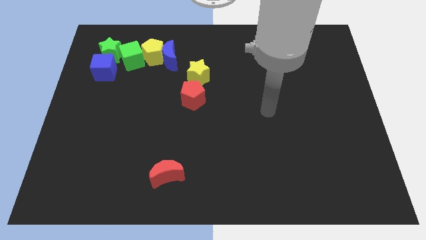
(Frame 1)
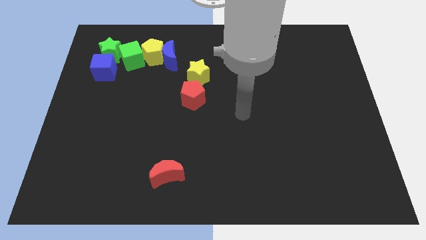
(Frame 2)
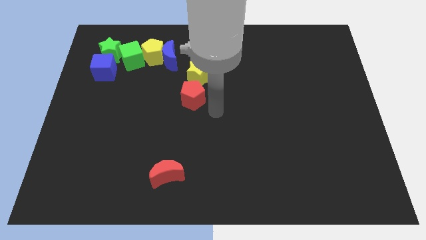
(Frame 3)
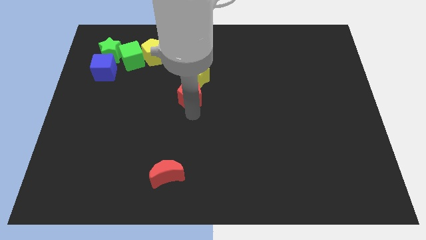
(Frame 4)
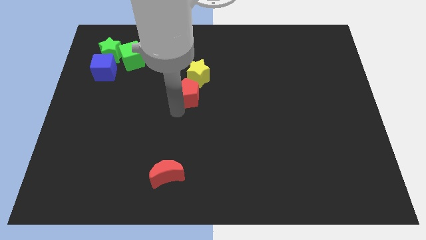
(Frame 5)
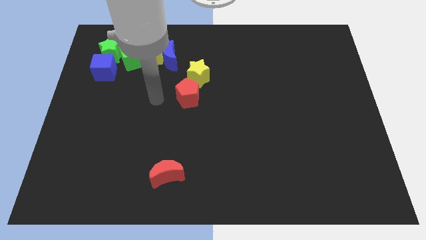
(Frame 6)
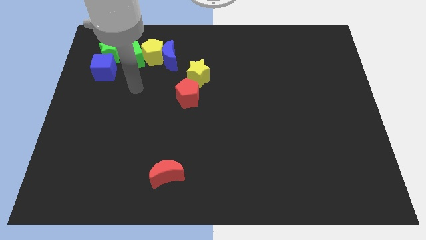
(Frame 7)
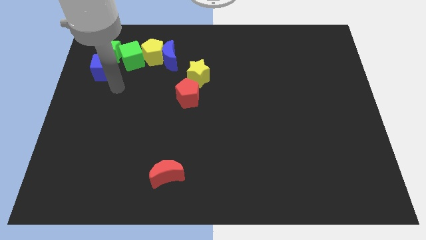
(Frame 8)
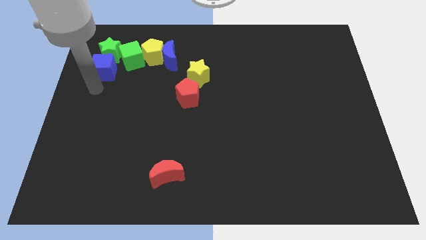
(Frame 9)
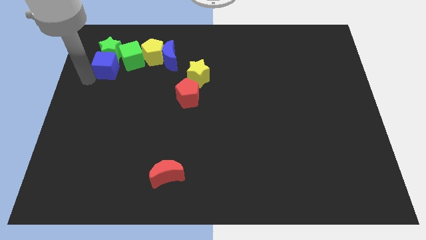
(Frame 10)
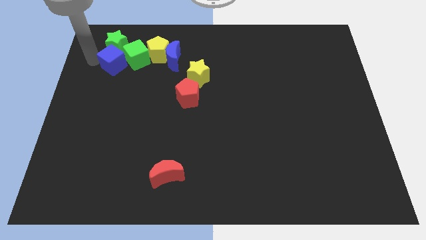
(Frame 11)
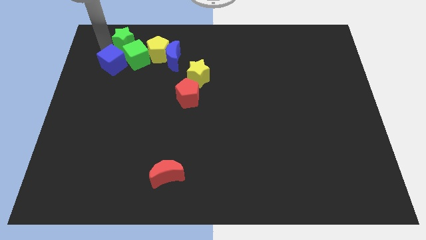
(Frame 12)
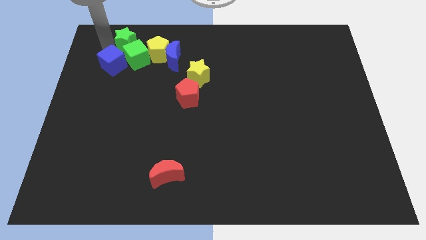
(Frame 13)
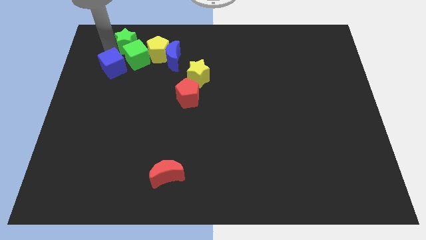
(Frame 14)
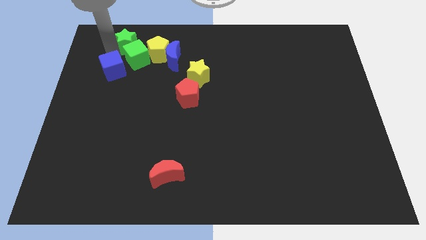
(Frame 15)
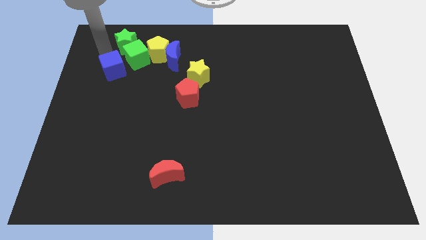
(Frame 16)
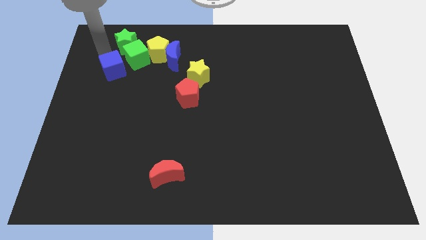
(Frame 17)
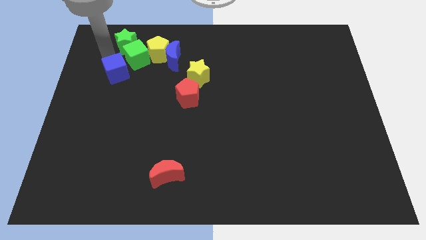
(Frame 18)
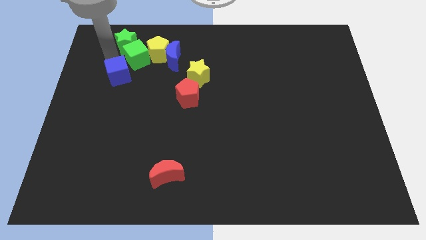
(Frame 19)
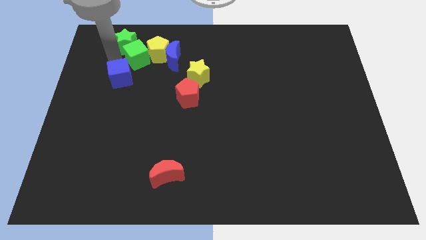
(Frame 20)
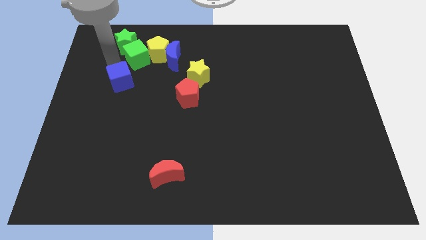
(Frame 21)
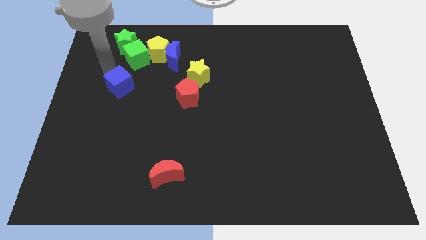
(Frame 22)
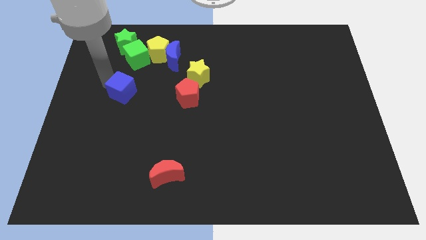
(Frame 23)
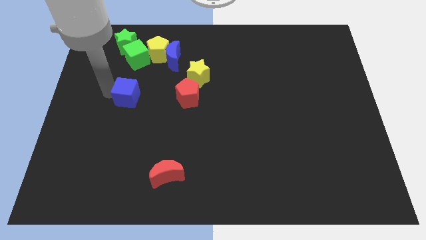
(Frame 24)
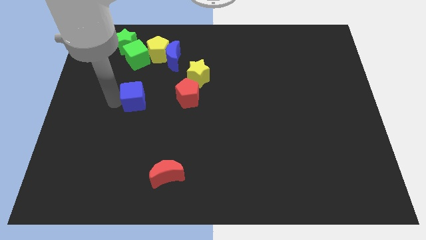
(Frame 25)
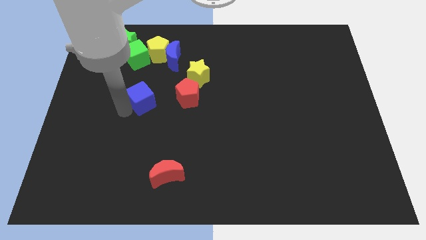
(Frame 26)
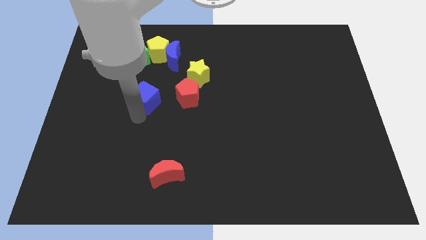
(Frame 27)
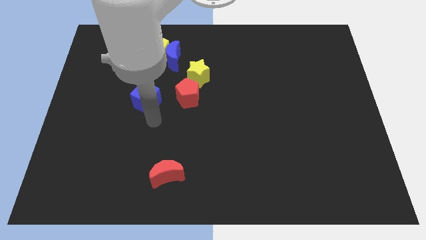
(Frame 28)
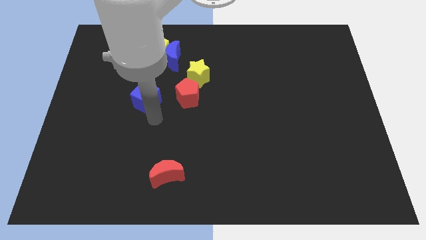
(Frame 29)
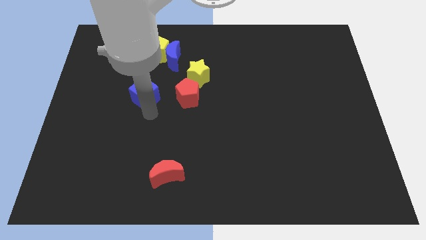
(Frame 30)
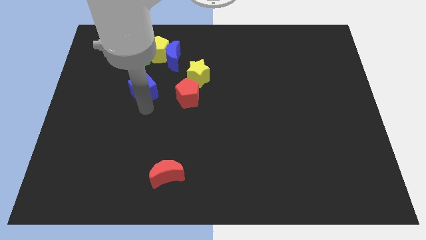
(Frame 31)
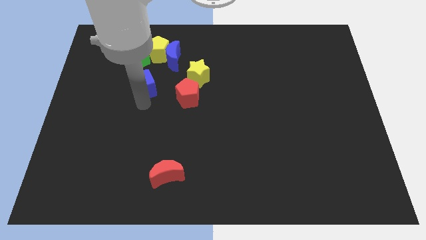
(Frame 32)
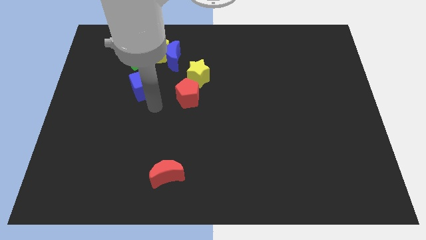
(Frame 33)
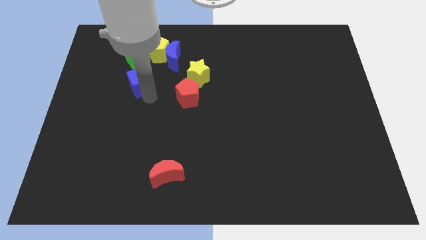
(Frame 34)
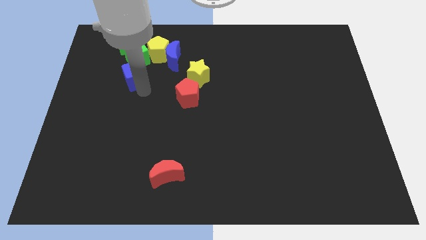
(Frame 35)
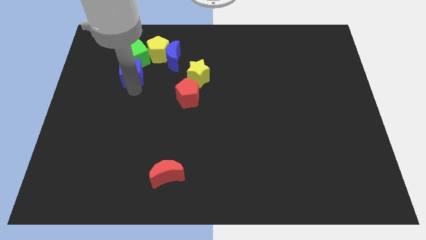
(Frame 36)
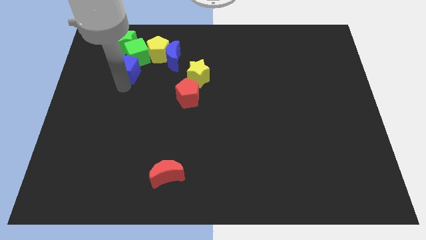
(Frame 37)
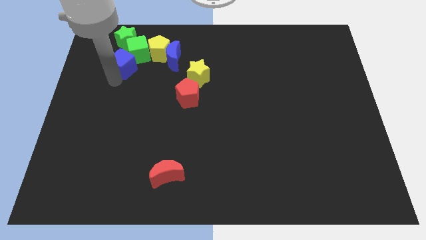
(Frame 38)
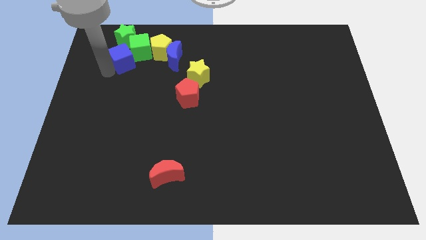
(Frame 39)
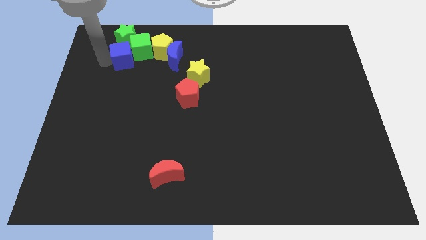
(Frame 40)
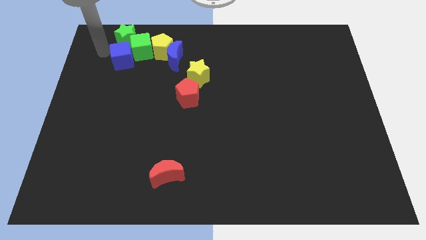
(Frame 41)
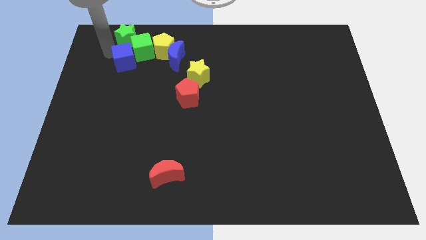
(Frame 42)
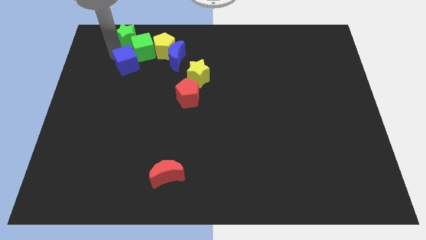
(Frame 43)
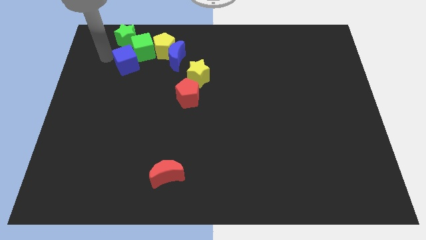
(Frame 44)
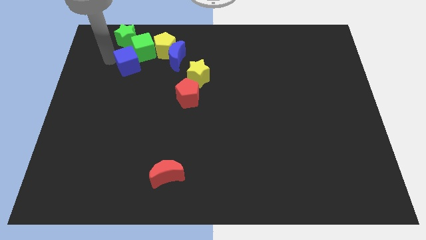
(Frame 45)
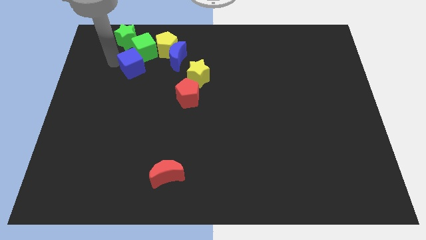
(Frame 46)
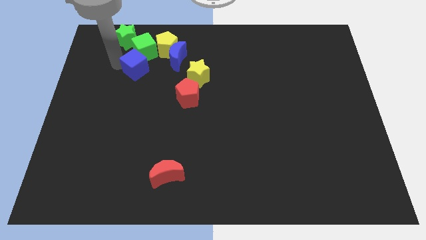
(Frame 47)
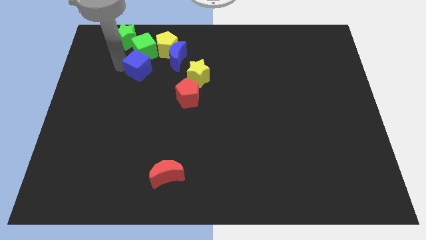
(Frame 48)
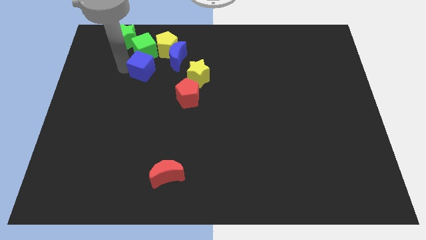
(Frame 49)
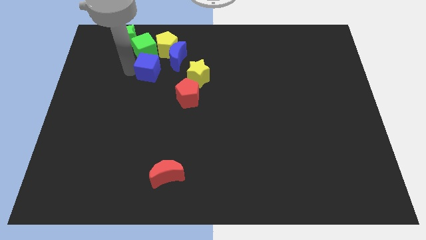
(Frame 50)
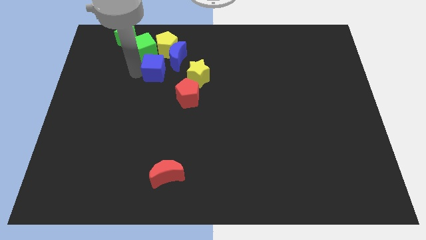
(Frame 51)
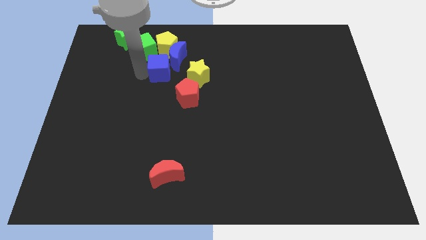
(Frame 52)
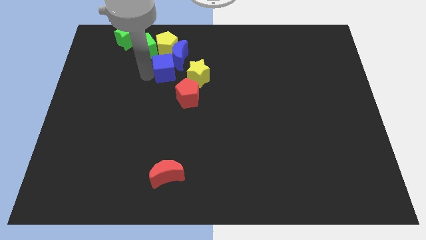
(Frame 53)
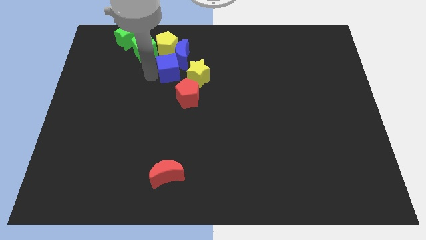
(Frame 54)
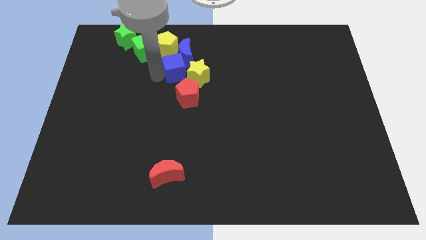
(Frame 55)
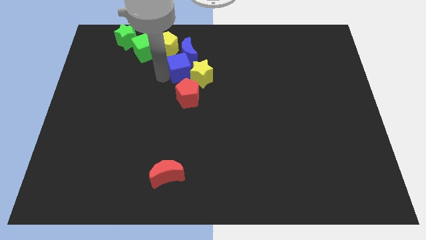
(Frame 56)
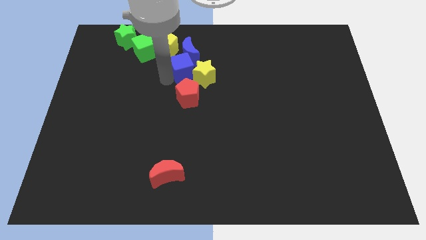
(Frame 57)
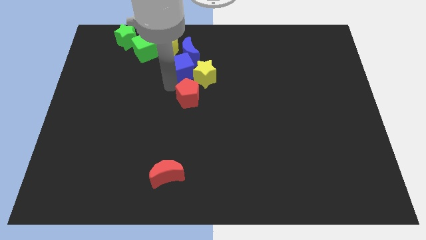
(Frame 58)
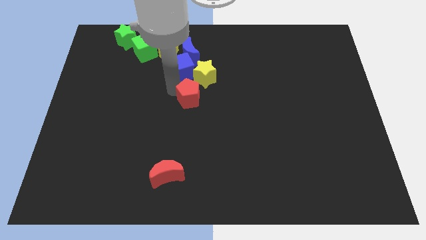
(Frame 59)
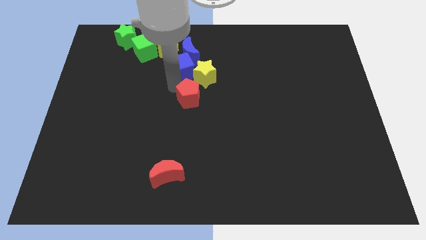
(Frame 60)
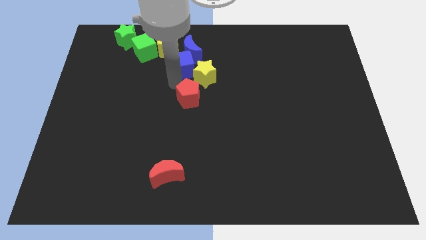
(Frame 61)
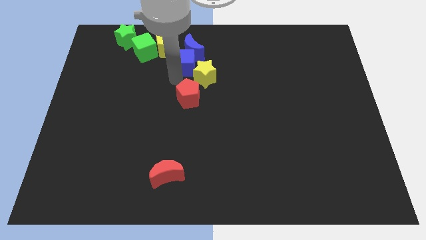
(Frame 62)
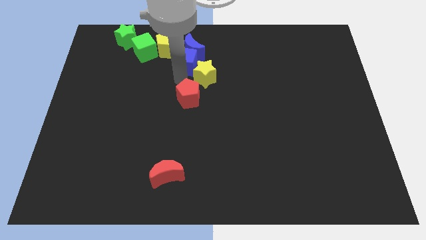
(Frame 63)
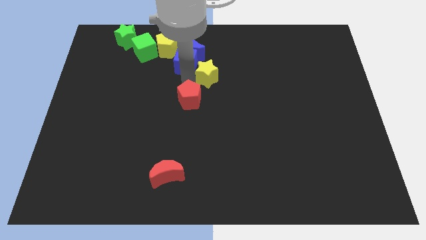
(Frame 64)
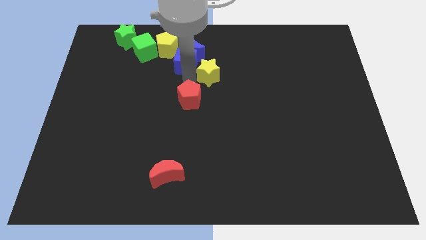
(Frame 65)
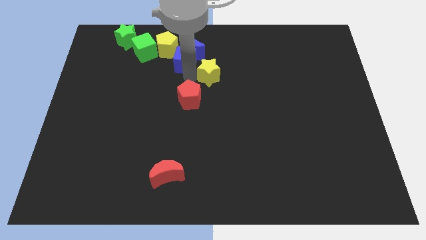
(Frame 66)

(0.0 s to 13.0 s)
push the blue cube to the right of the green cube
